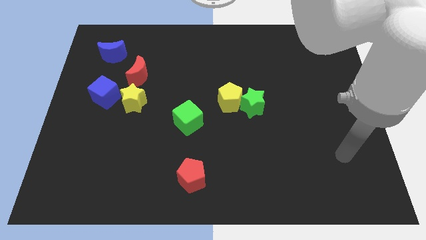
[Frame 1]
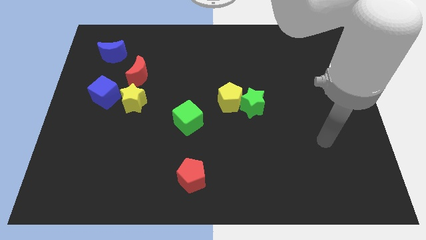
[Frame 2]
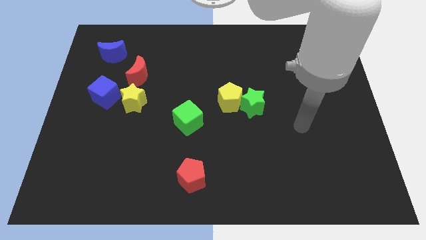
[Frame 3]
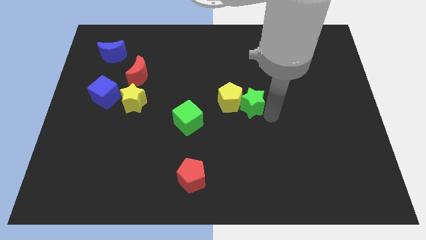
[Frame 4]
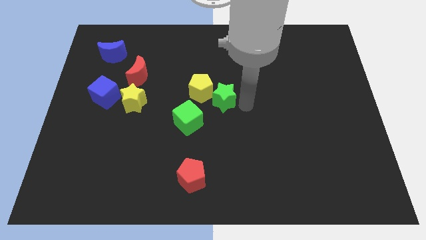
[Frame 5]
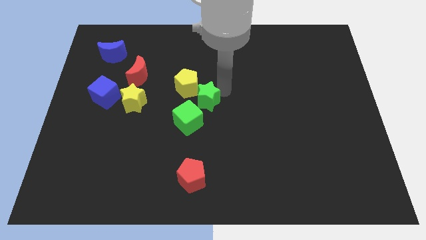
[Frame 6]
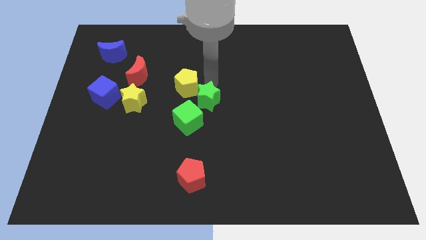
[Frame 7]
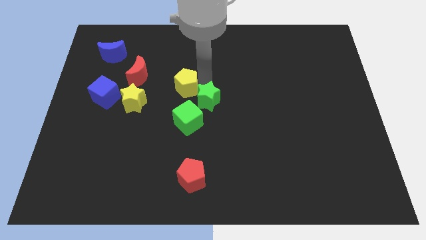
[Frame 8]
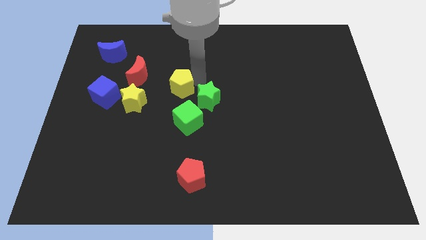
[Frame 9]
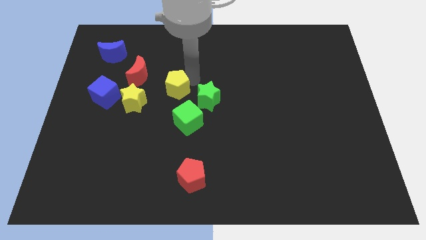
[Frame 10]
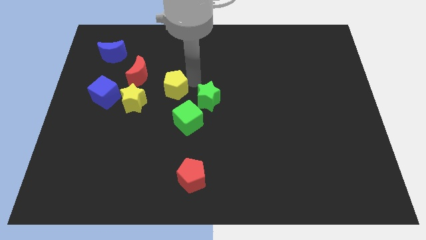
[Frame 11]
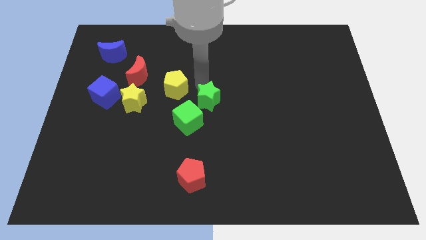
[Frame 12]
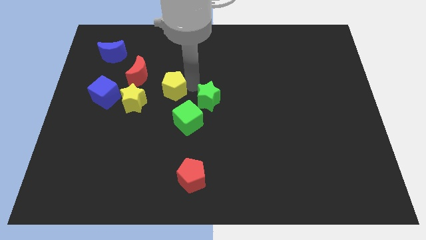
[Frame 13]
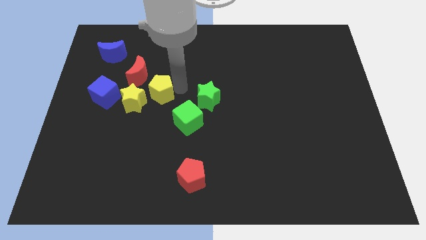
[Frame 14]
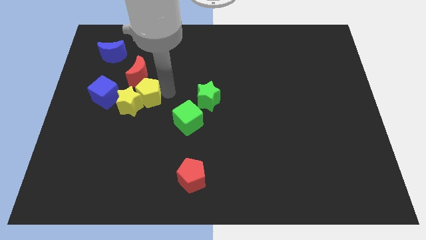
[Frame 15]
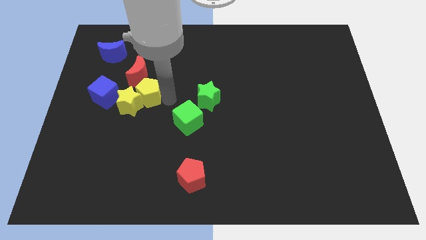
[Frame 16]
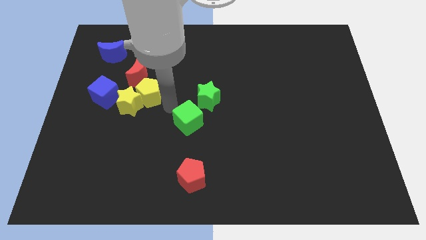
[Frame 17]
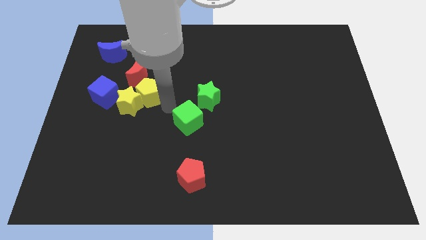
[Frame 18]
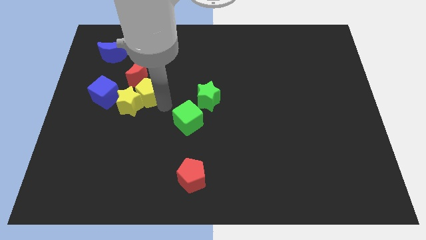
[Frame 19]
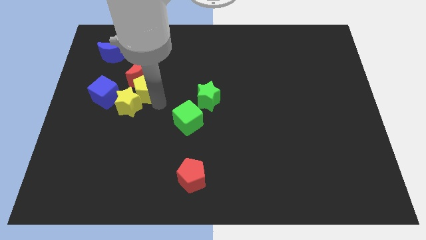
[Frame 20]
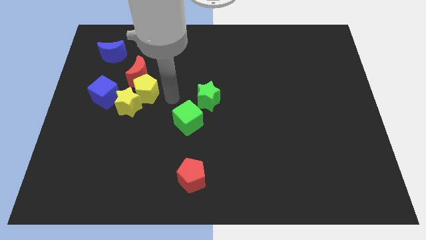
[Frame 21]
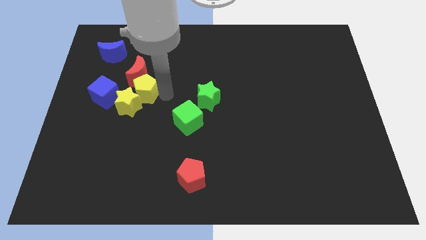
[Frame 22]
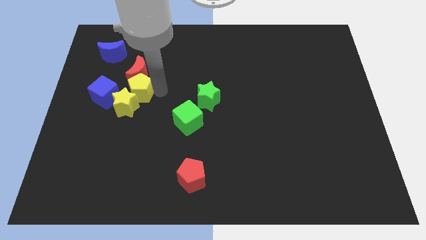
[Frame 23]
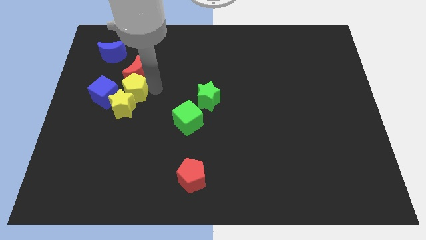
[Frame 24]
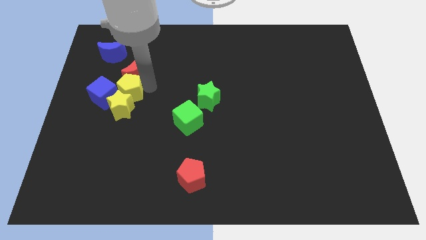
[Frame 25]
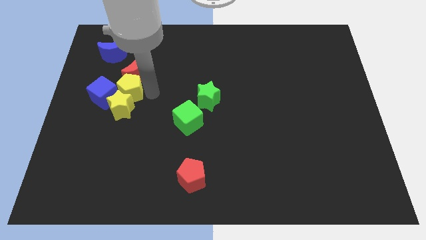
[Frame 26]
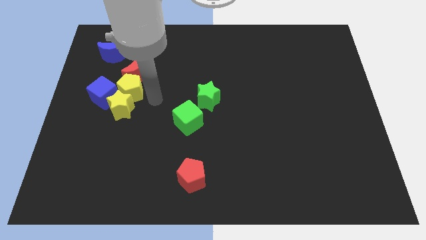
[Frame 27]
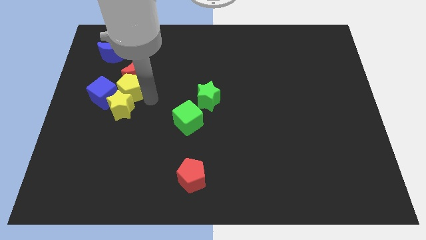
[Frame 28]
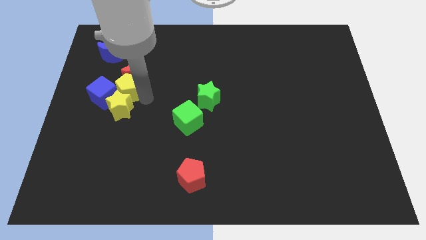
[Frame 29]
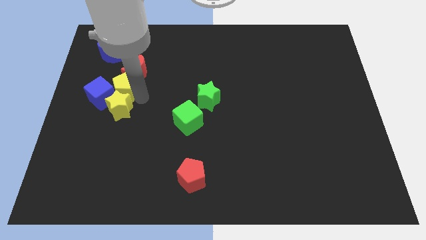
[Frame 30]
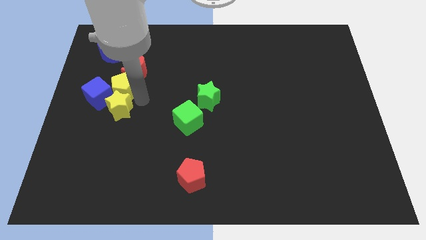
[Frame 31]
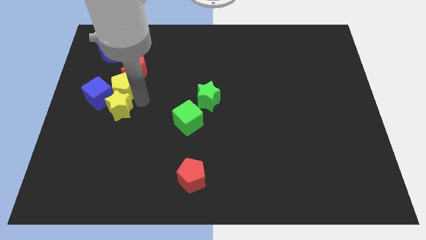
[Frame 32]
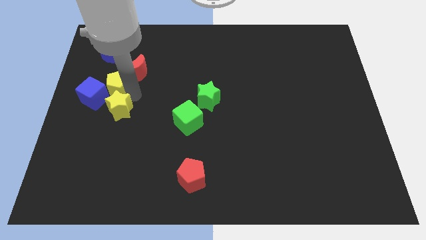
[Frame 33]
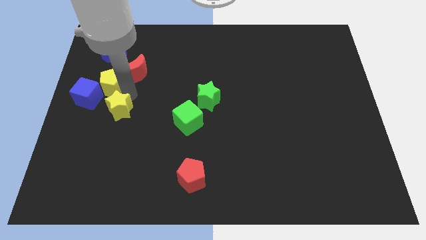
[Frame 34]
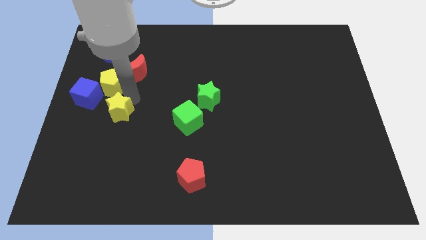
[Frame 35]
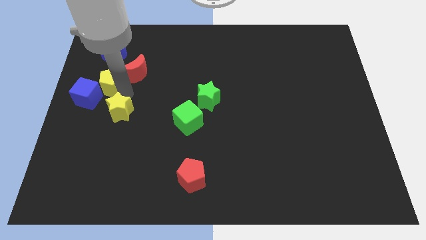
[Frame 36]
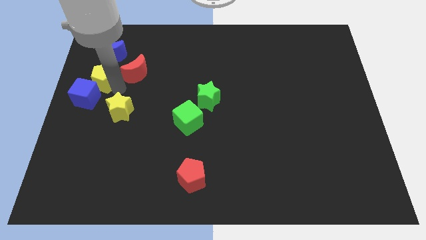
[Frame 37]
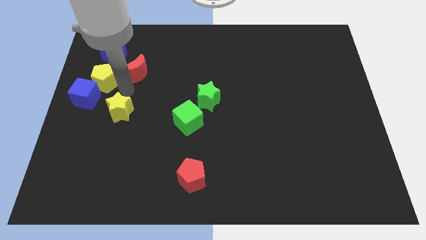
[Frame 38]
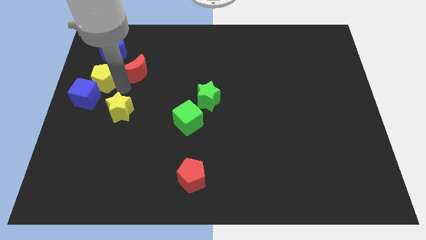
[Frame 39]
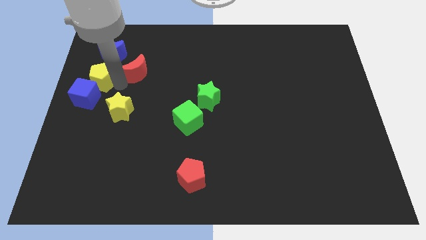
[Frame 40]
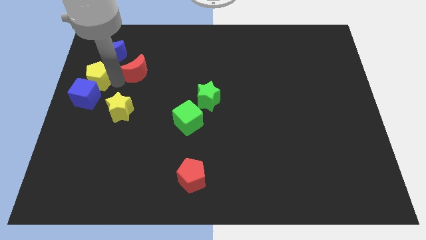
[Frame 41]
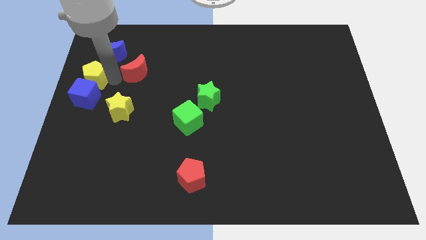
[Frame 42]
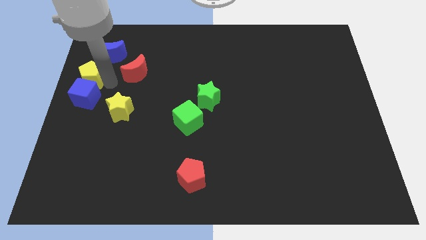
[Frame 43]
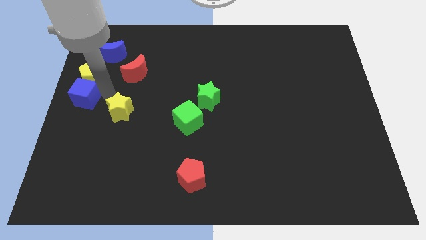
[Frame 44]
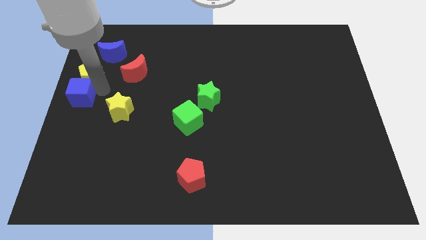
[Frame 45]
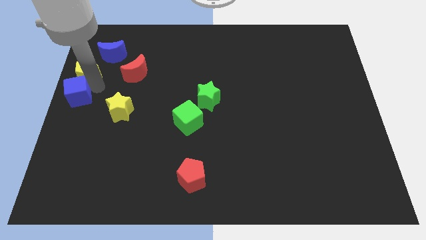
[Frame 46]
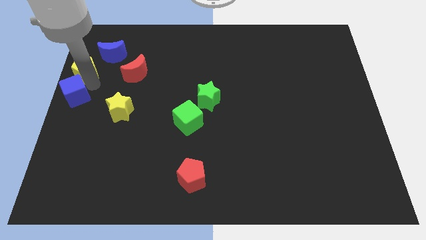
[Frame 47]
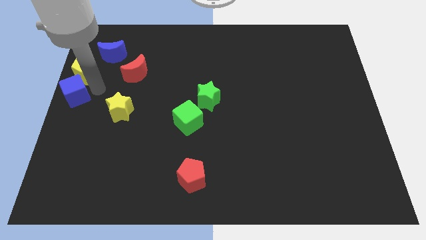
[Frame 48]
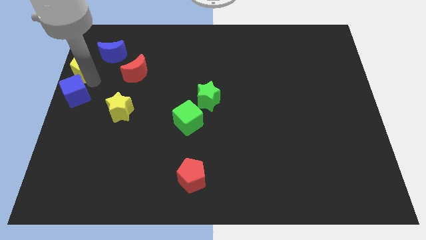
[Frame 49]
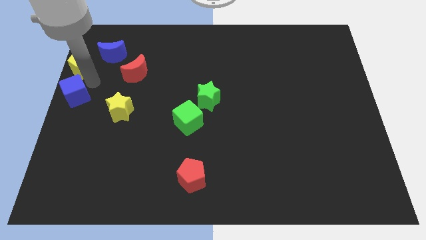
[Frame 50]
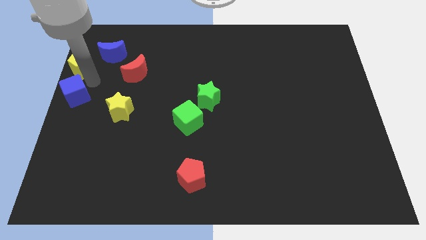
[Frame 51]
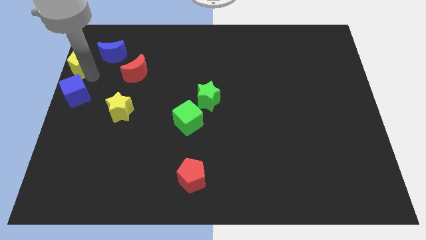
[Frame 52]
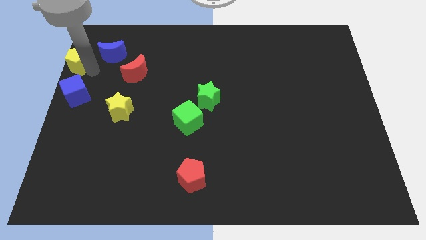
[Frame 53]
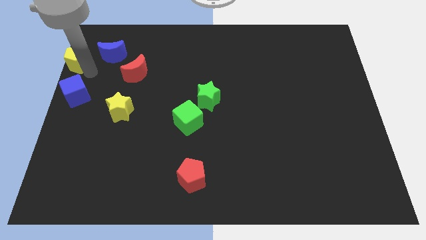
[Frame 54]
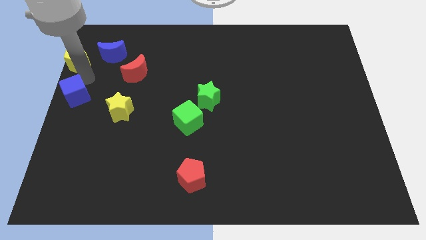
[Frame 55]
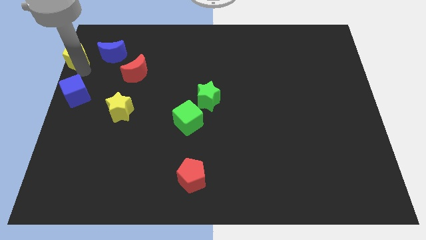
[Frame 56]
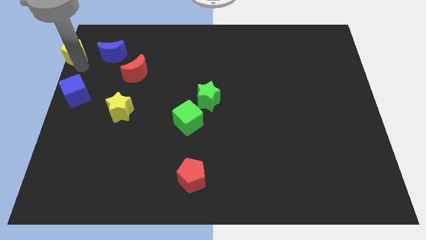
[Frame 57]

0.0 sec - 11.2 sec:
put the yellow pentagon to the upper left corner

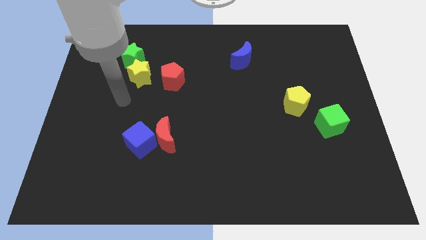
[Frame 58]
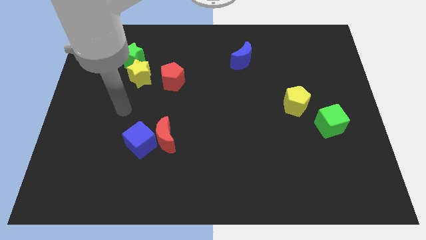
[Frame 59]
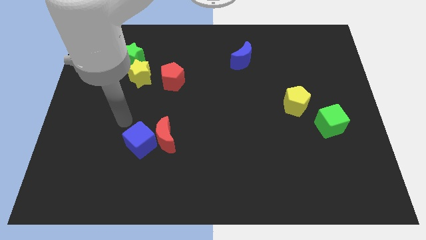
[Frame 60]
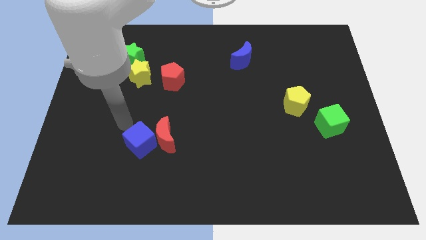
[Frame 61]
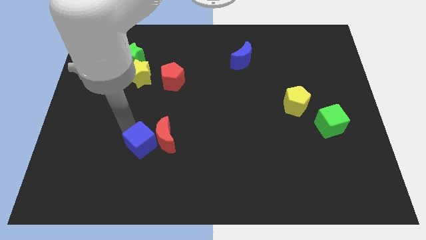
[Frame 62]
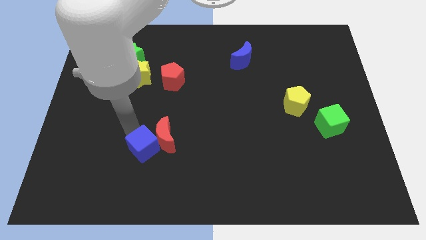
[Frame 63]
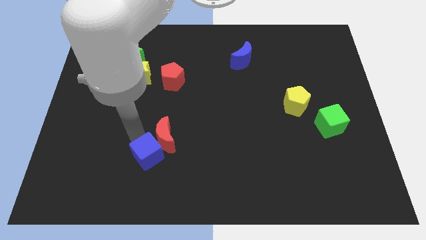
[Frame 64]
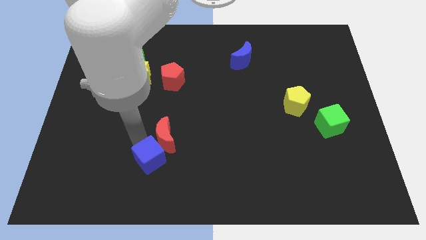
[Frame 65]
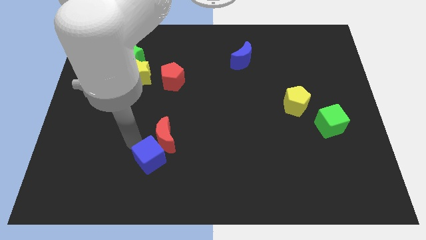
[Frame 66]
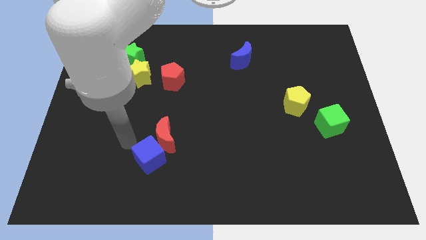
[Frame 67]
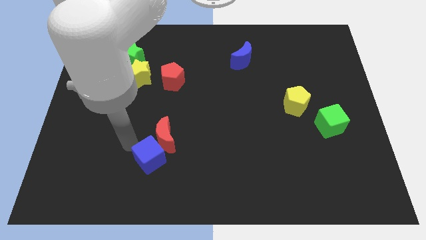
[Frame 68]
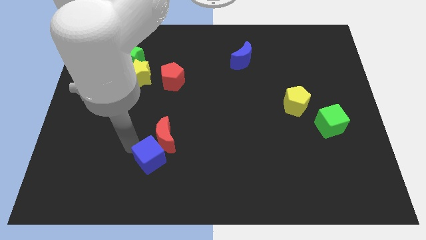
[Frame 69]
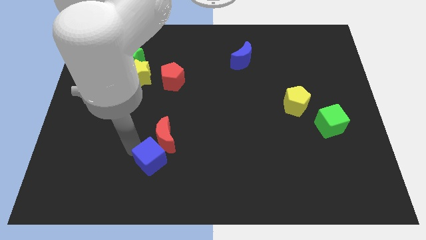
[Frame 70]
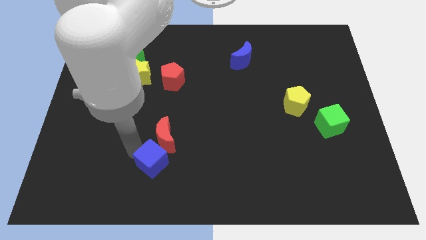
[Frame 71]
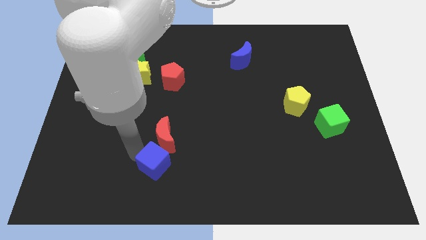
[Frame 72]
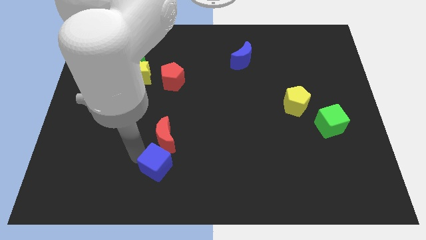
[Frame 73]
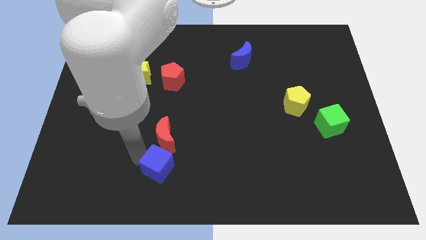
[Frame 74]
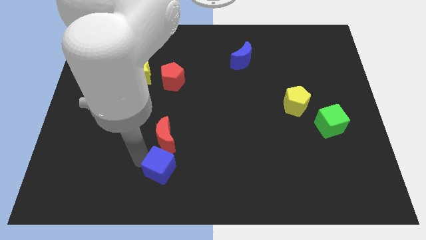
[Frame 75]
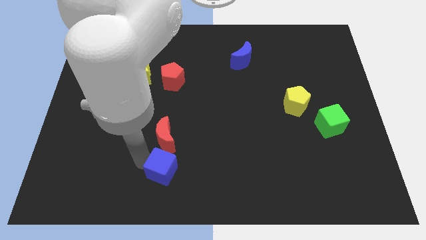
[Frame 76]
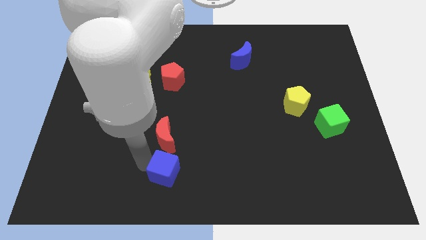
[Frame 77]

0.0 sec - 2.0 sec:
move the blue cube to the bottom
